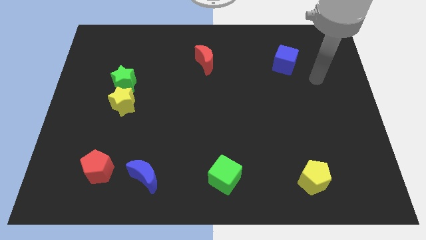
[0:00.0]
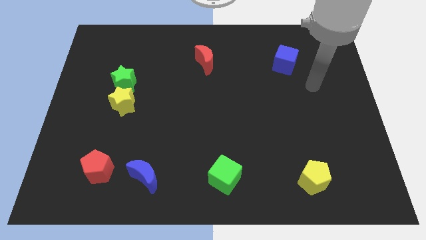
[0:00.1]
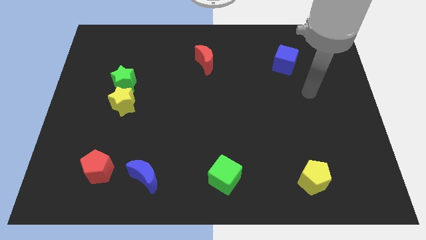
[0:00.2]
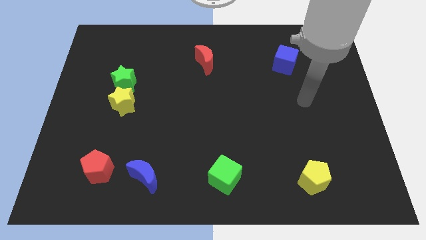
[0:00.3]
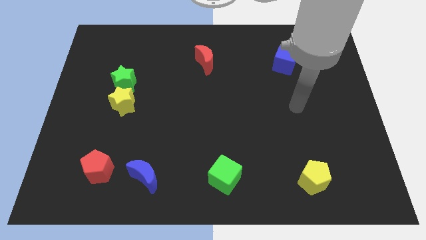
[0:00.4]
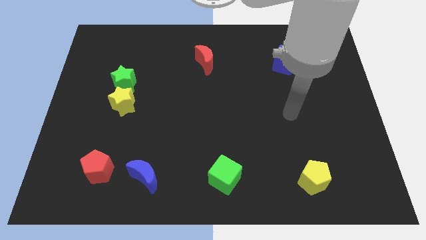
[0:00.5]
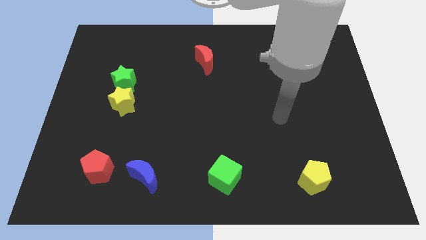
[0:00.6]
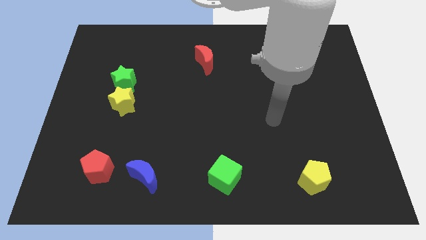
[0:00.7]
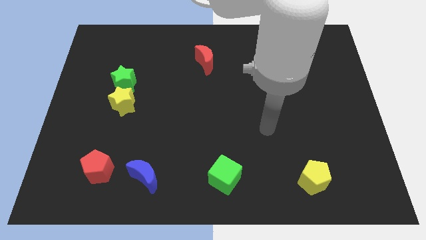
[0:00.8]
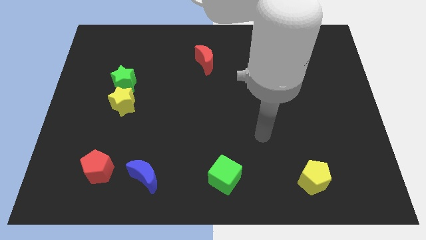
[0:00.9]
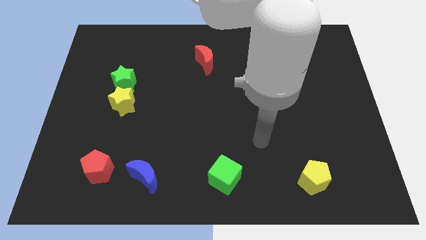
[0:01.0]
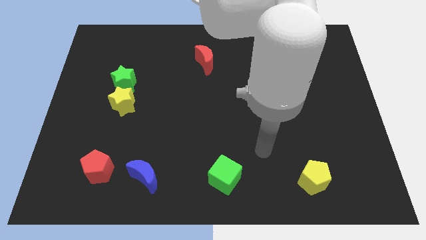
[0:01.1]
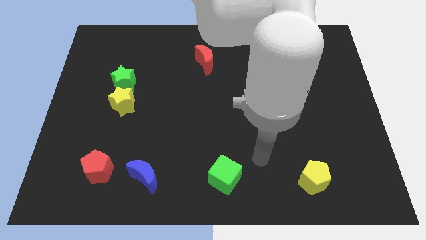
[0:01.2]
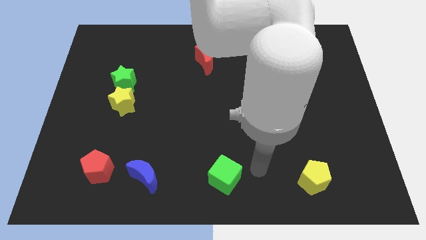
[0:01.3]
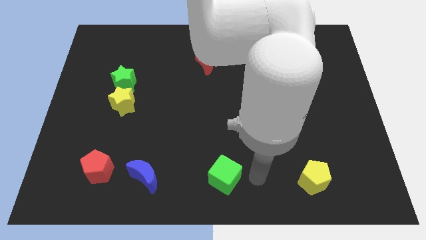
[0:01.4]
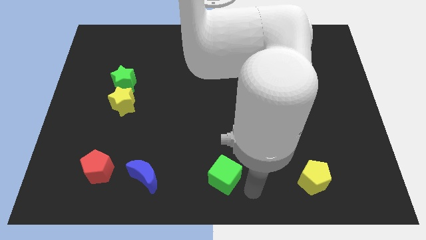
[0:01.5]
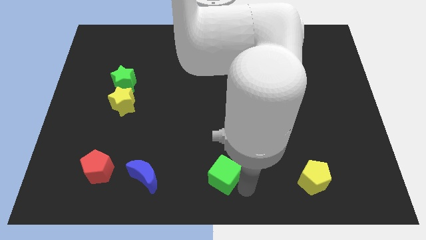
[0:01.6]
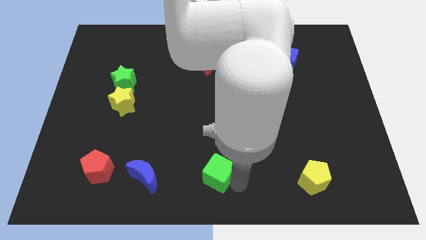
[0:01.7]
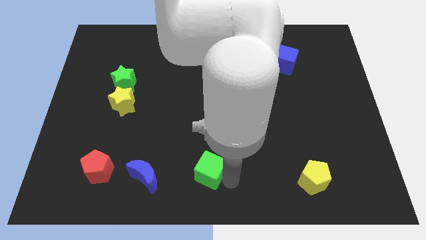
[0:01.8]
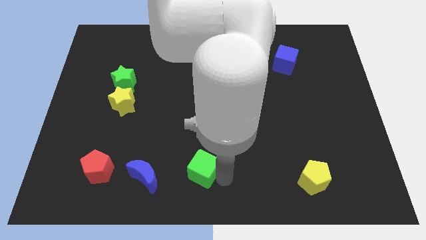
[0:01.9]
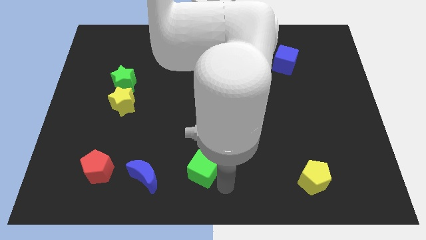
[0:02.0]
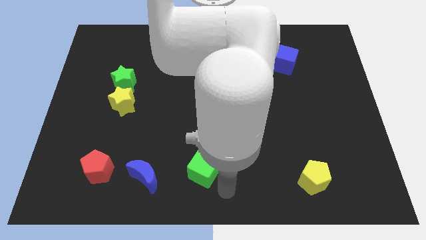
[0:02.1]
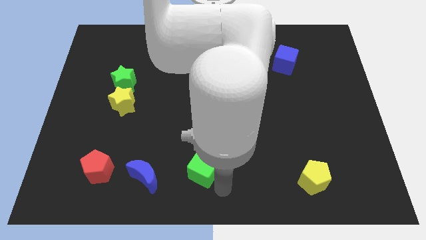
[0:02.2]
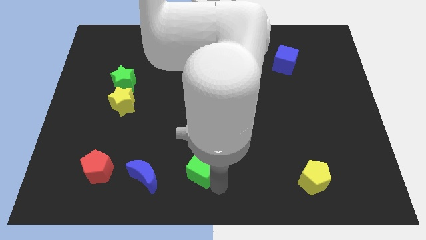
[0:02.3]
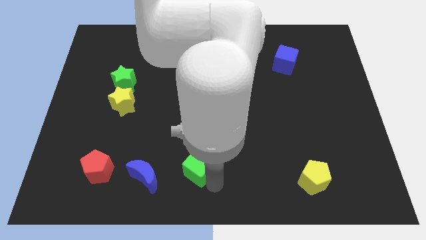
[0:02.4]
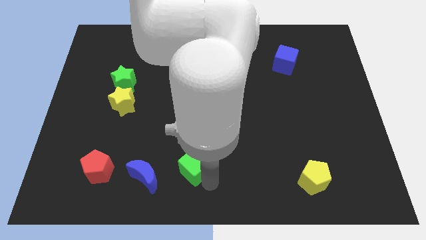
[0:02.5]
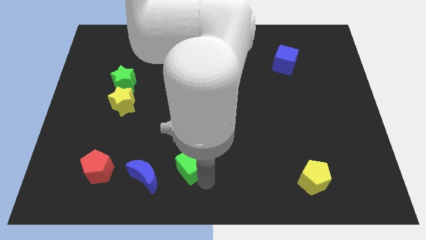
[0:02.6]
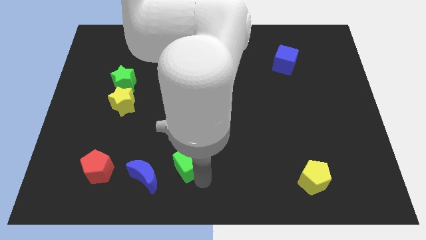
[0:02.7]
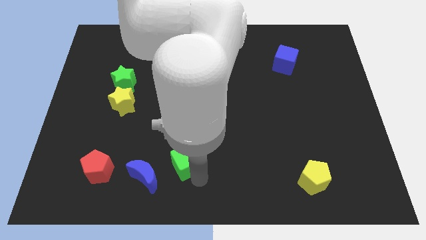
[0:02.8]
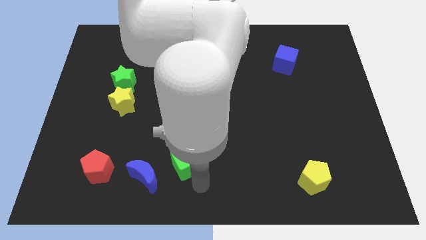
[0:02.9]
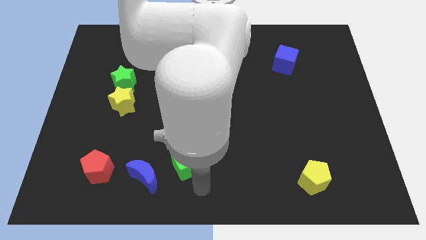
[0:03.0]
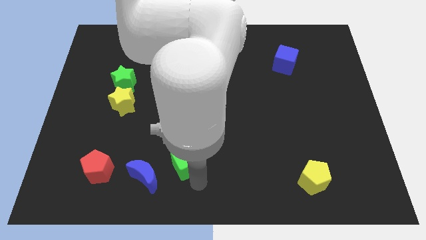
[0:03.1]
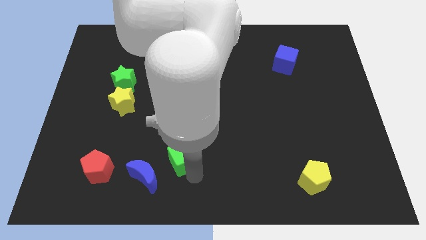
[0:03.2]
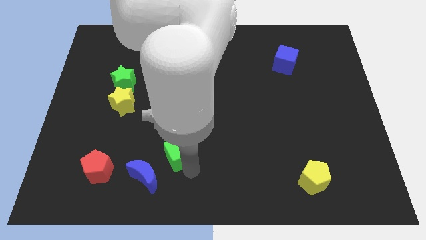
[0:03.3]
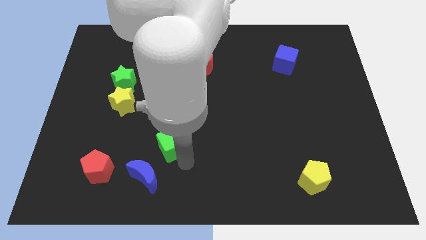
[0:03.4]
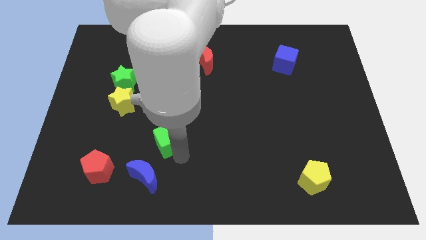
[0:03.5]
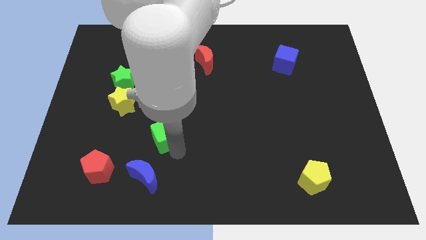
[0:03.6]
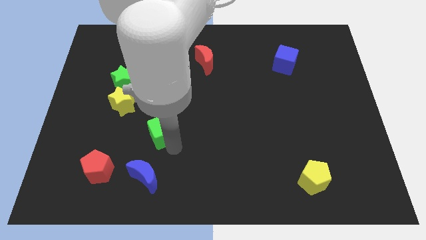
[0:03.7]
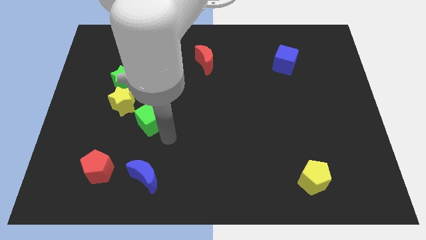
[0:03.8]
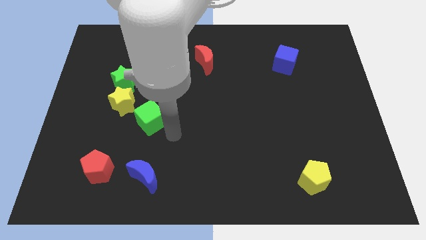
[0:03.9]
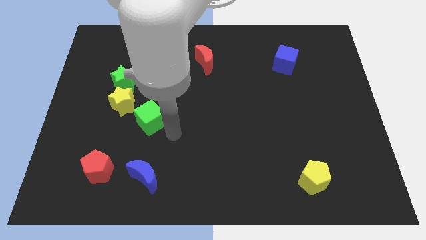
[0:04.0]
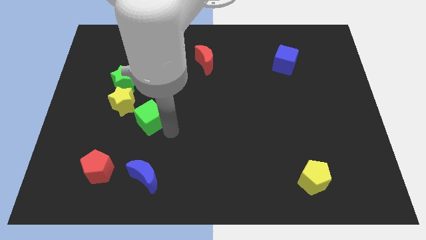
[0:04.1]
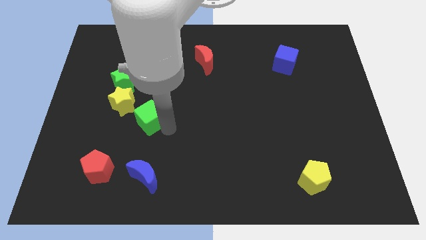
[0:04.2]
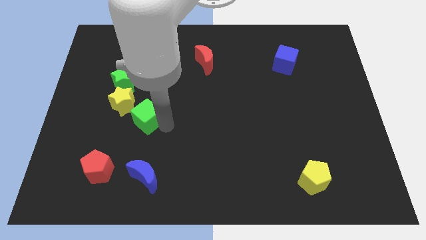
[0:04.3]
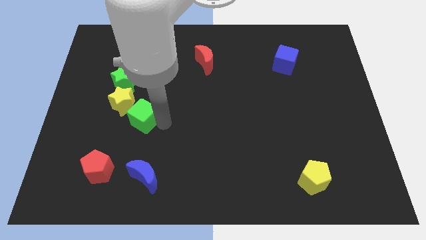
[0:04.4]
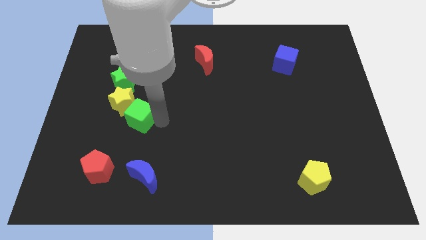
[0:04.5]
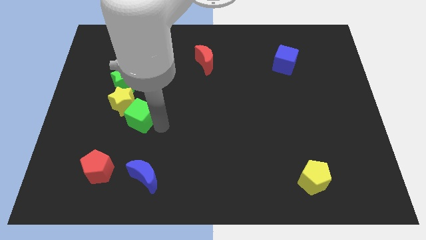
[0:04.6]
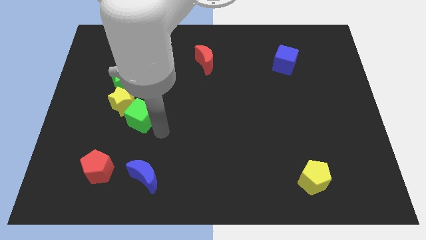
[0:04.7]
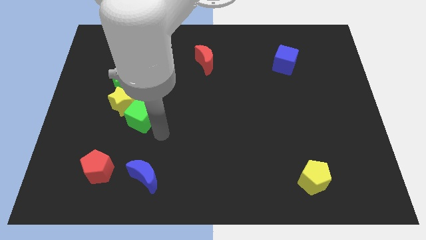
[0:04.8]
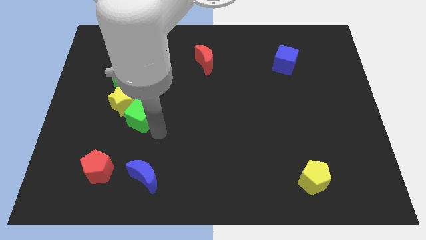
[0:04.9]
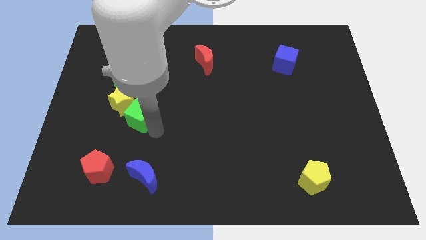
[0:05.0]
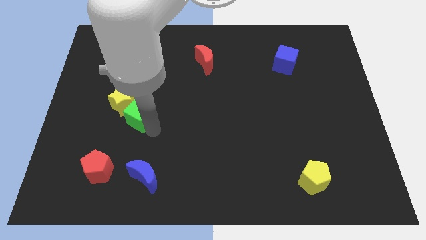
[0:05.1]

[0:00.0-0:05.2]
move the green cube to the yellow star

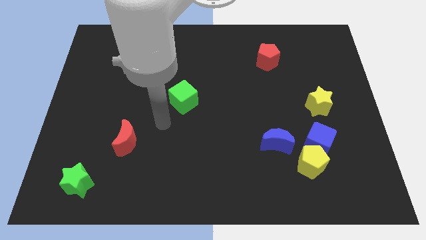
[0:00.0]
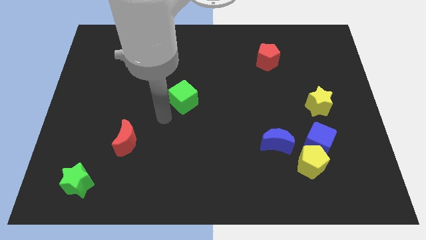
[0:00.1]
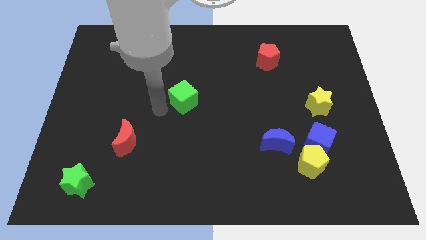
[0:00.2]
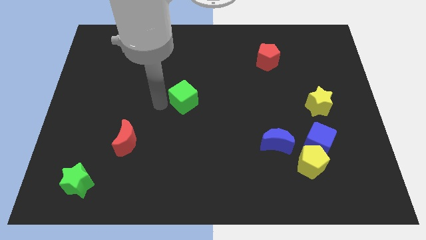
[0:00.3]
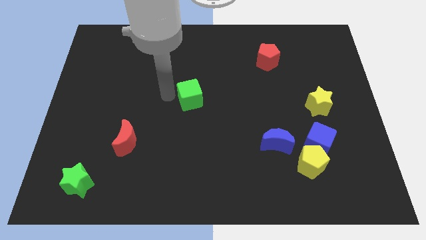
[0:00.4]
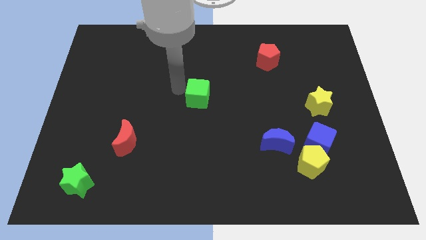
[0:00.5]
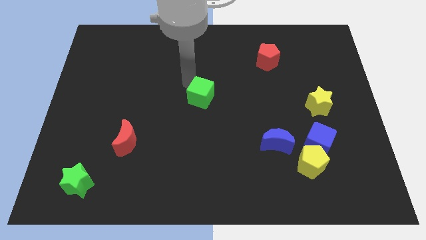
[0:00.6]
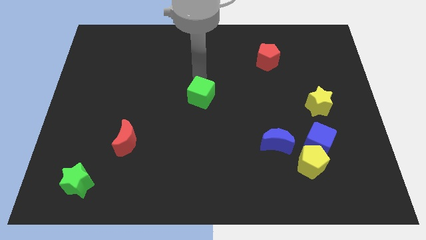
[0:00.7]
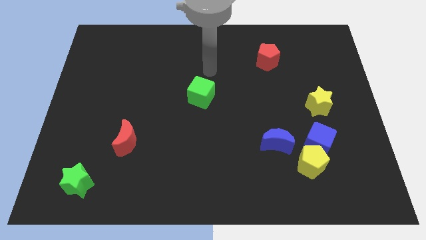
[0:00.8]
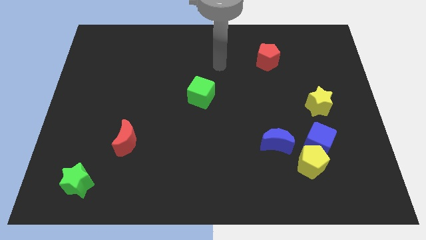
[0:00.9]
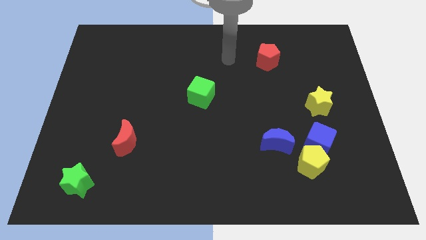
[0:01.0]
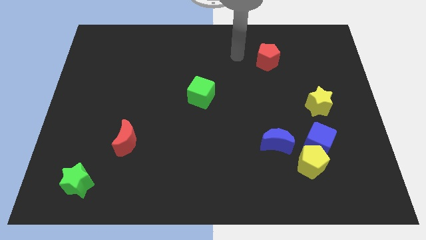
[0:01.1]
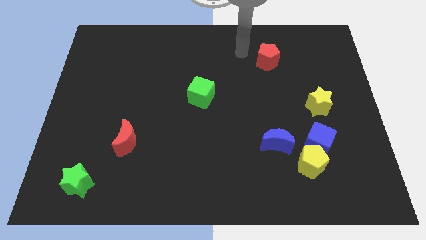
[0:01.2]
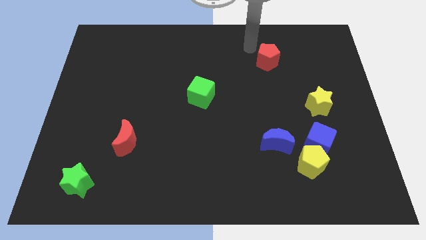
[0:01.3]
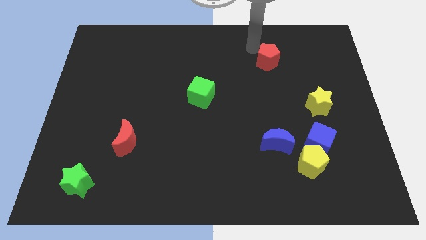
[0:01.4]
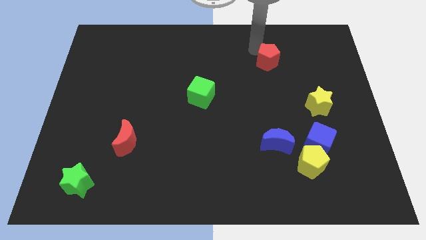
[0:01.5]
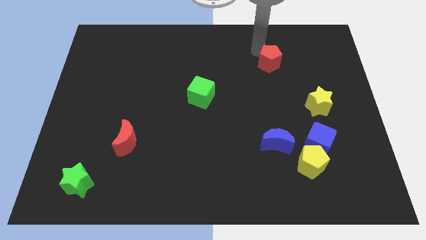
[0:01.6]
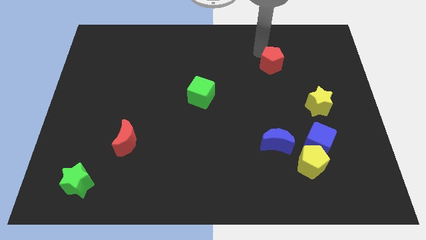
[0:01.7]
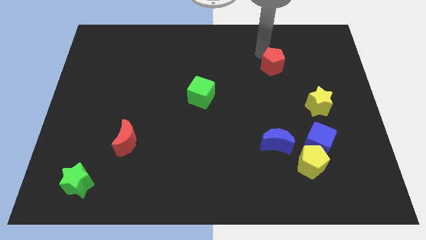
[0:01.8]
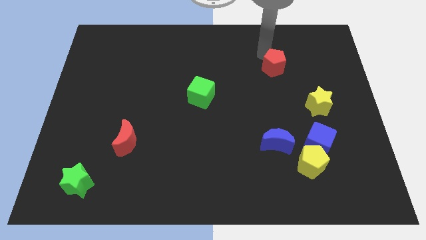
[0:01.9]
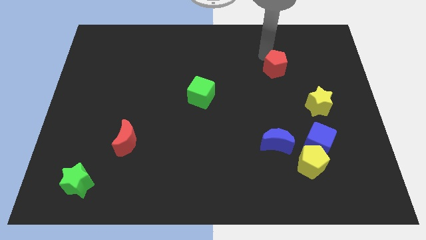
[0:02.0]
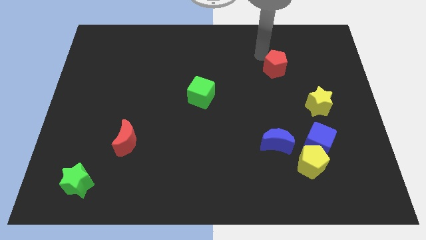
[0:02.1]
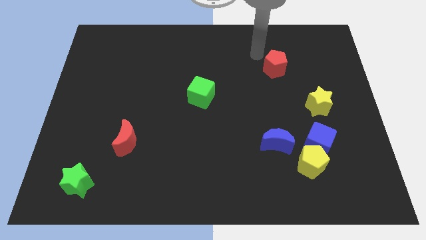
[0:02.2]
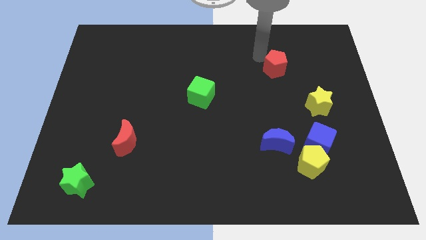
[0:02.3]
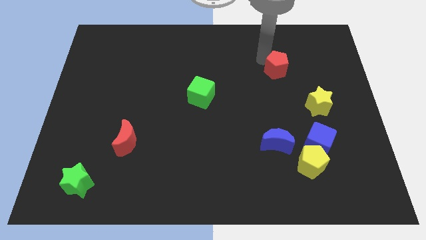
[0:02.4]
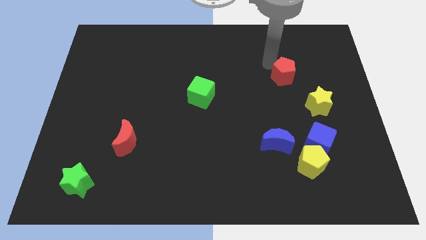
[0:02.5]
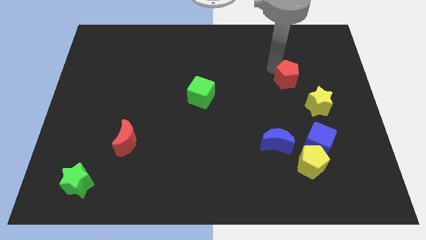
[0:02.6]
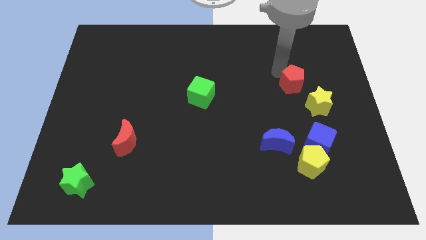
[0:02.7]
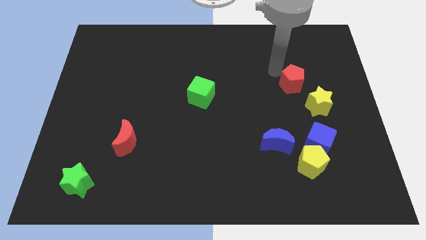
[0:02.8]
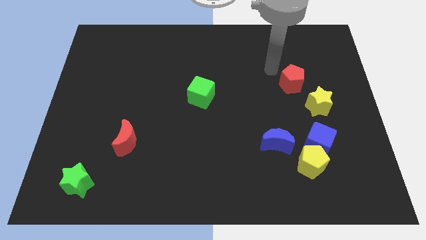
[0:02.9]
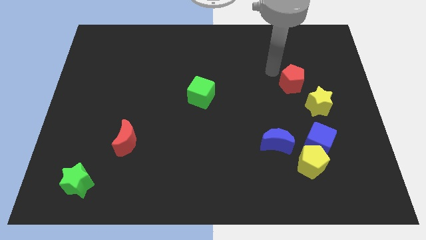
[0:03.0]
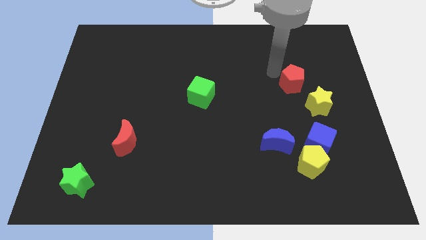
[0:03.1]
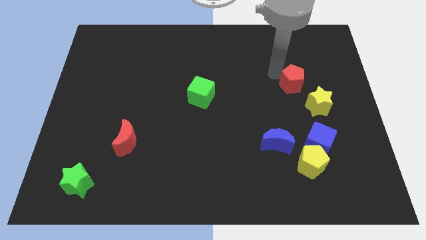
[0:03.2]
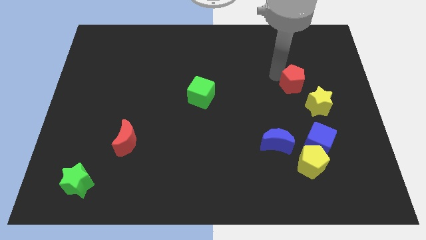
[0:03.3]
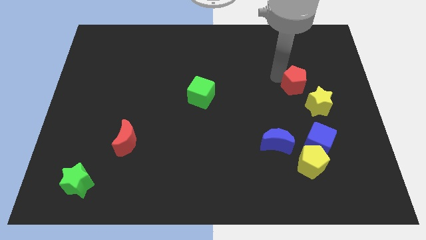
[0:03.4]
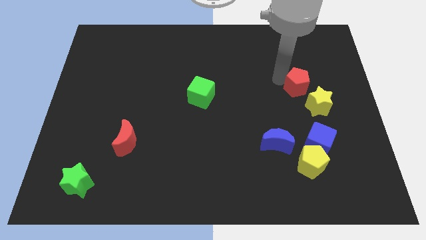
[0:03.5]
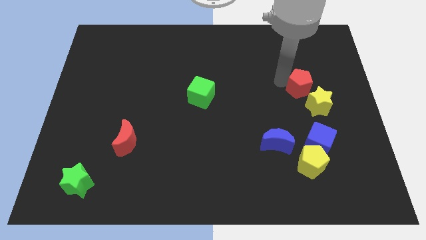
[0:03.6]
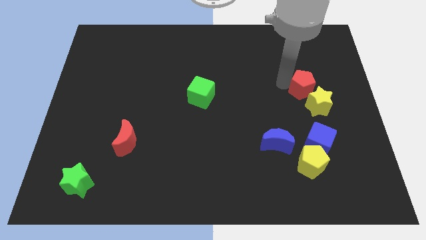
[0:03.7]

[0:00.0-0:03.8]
move the red pentagon close to the yellow star
